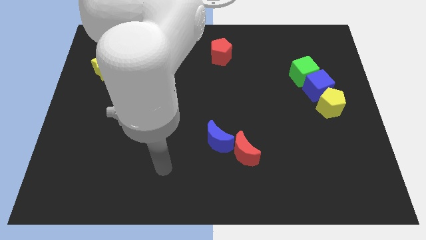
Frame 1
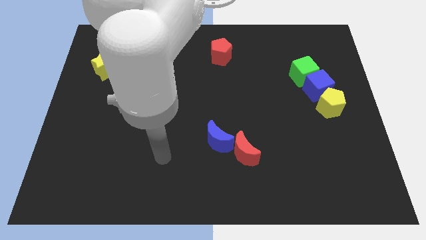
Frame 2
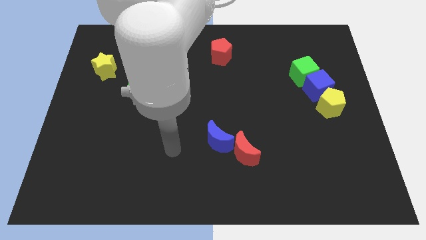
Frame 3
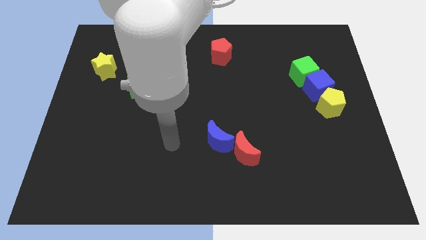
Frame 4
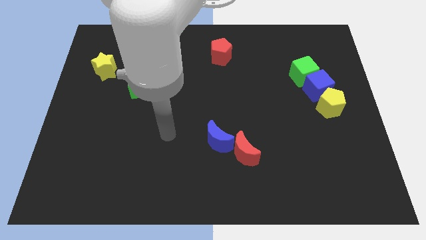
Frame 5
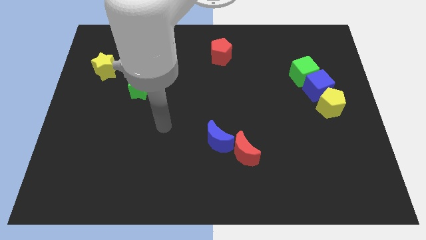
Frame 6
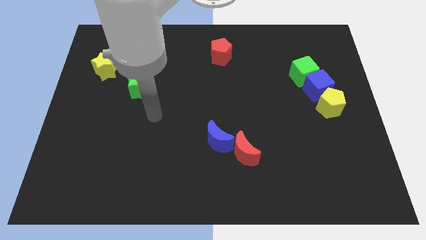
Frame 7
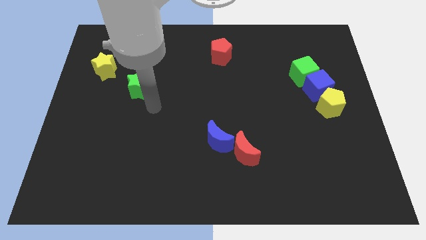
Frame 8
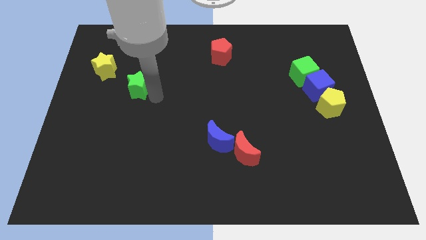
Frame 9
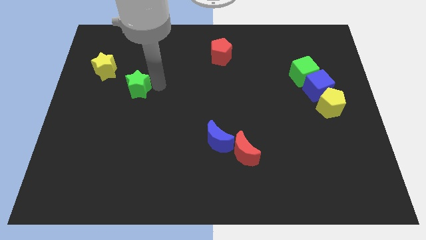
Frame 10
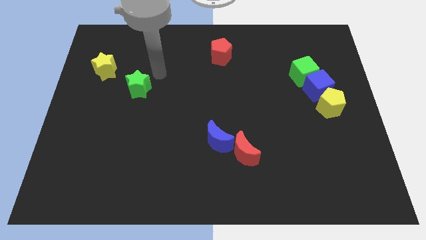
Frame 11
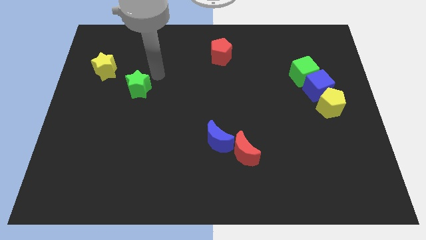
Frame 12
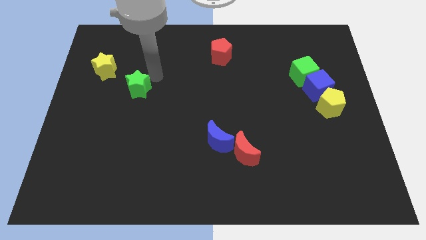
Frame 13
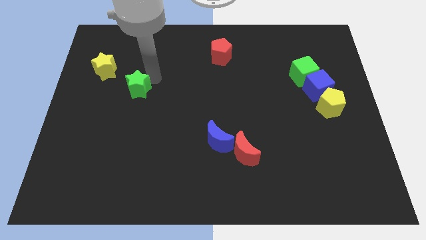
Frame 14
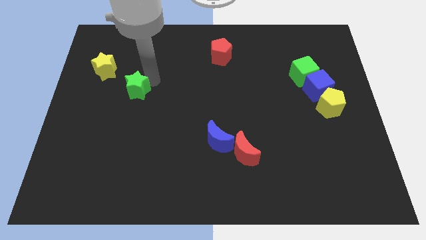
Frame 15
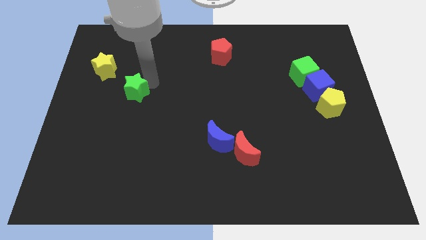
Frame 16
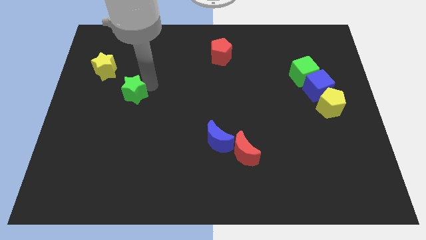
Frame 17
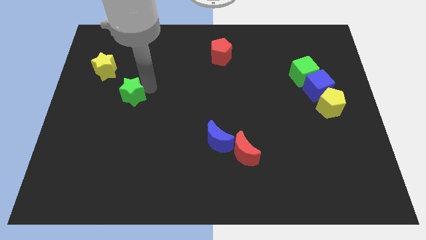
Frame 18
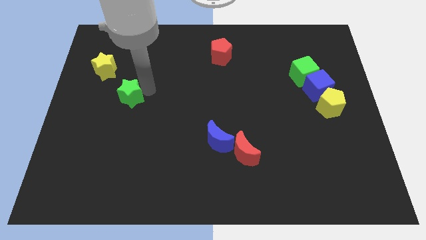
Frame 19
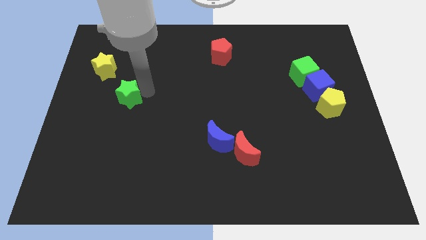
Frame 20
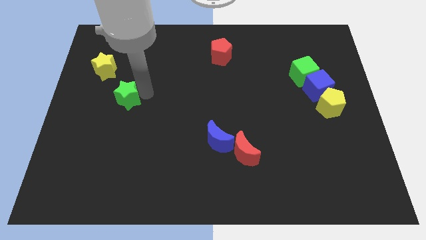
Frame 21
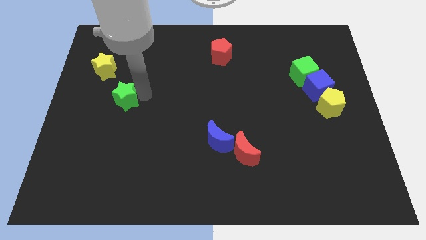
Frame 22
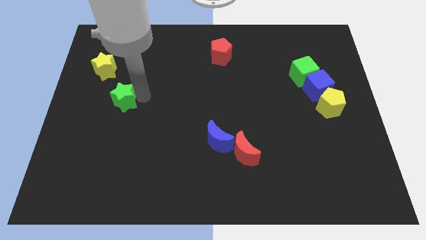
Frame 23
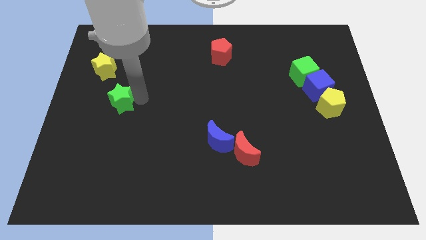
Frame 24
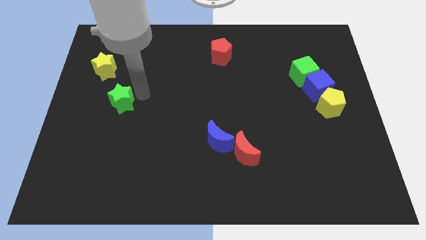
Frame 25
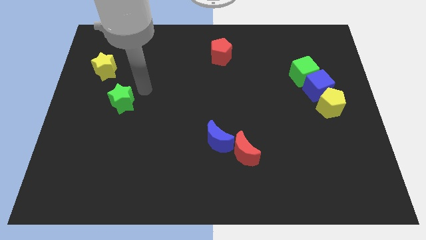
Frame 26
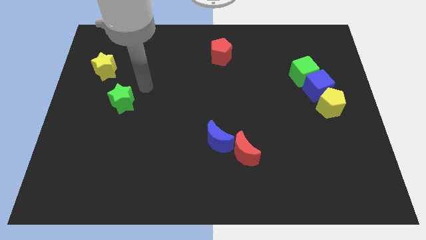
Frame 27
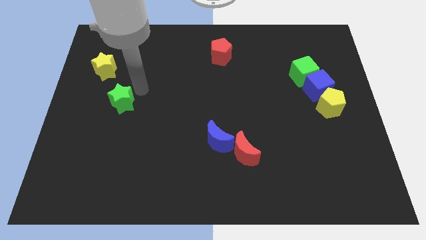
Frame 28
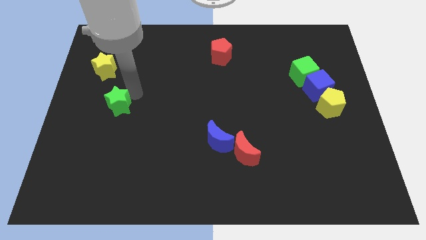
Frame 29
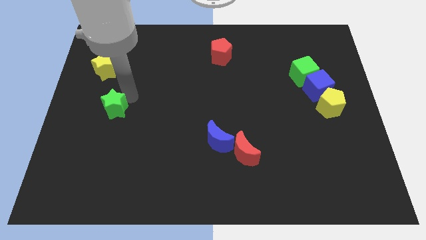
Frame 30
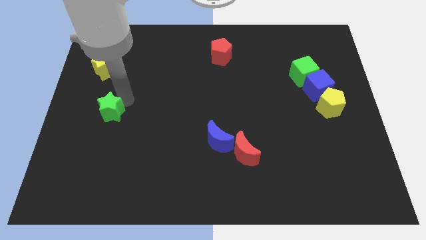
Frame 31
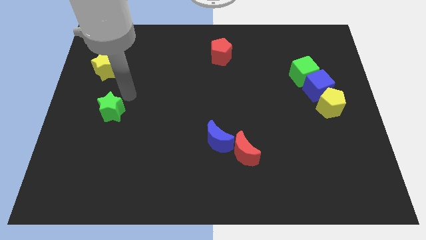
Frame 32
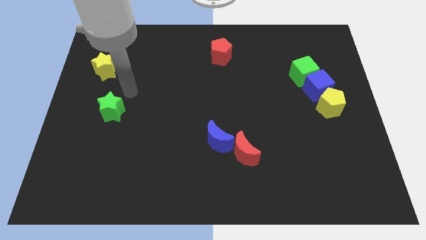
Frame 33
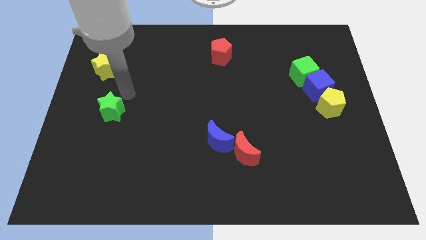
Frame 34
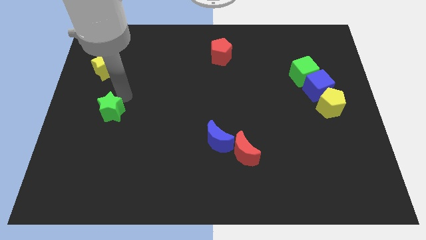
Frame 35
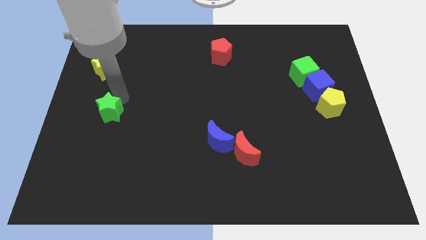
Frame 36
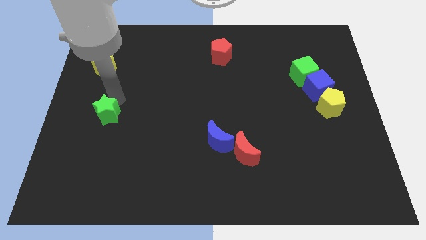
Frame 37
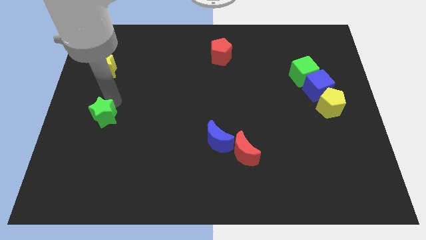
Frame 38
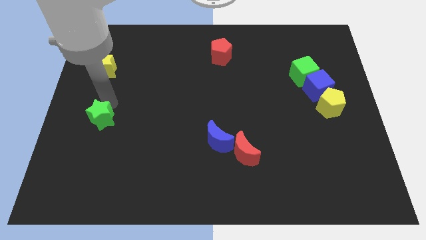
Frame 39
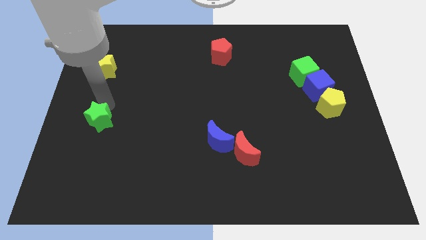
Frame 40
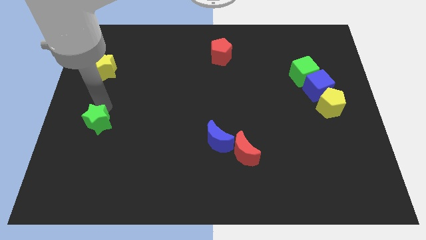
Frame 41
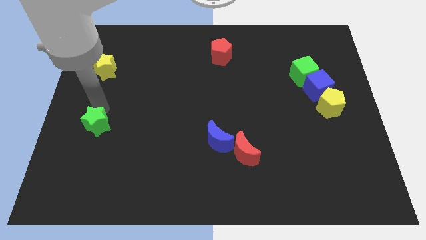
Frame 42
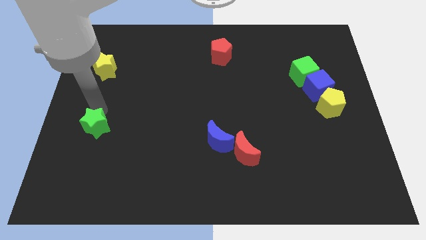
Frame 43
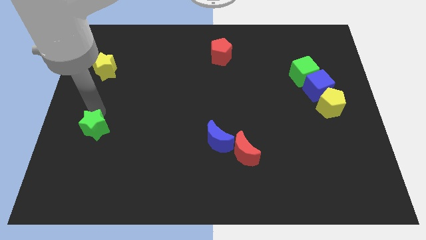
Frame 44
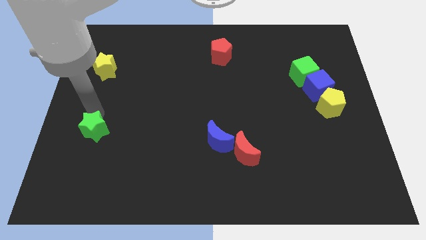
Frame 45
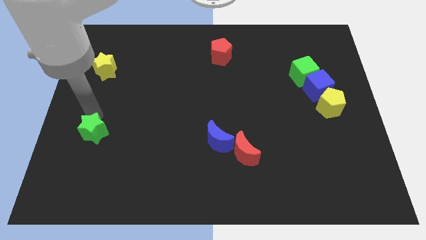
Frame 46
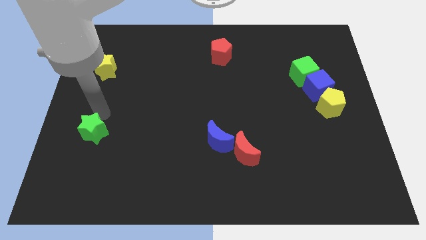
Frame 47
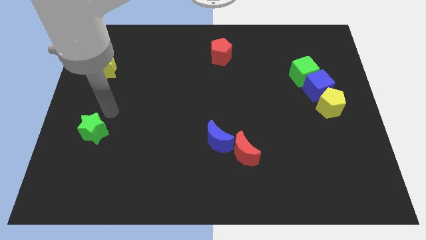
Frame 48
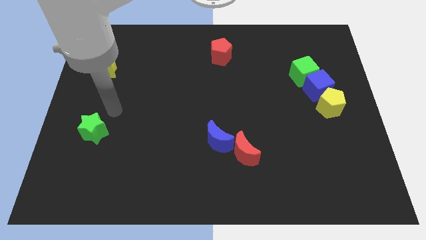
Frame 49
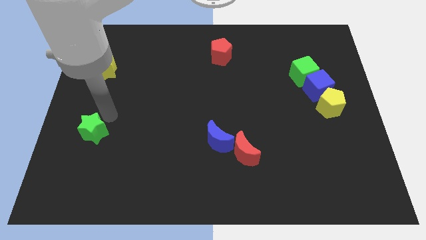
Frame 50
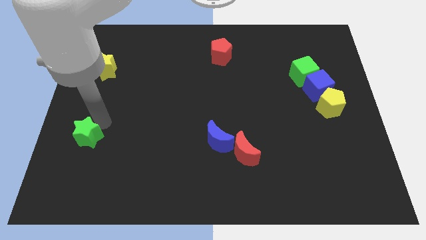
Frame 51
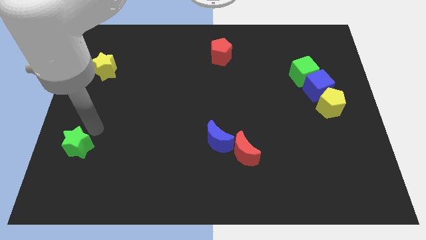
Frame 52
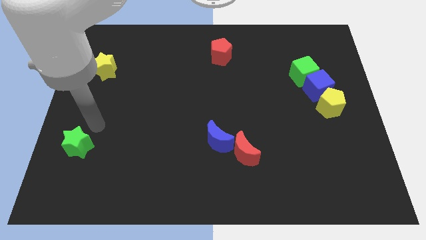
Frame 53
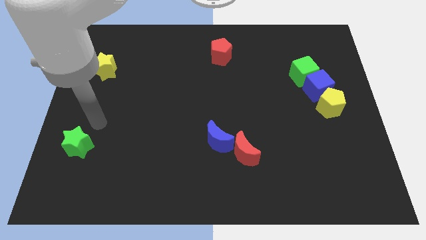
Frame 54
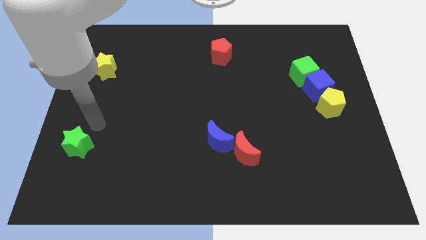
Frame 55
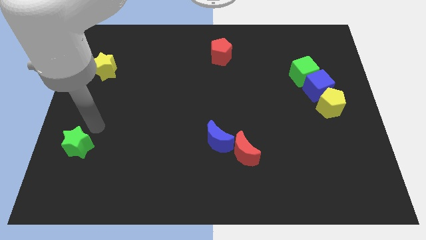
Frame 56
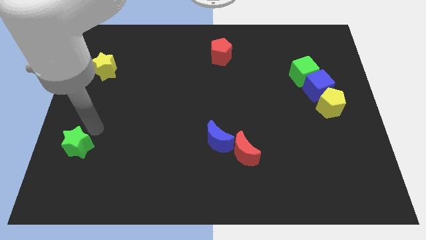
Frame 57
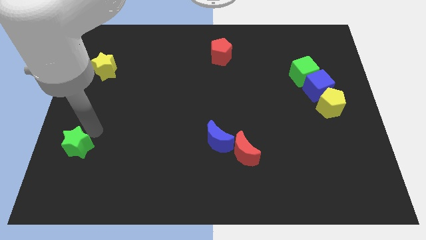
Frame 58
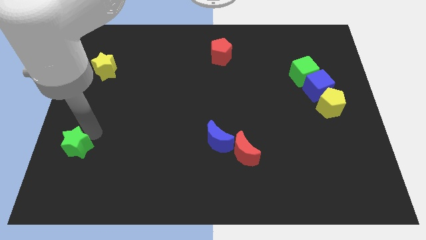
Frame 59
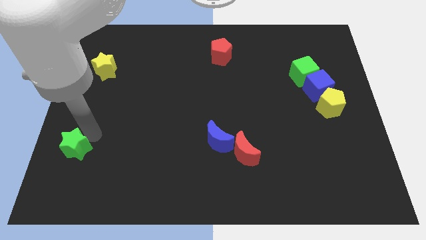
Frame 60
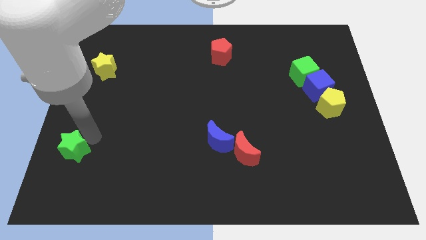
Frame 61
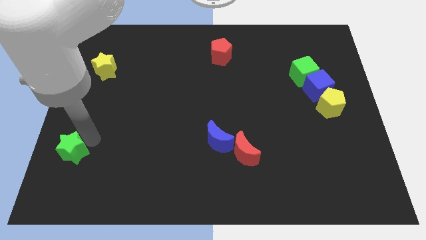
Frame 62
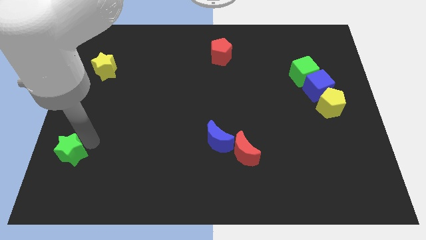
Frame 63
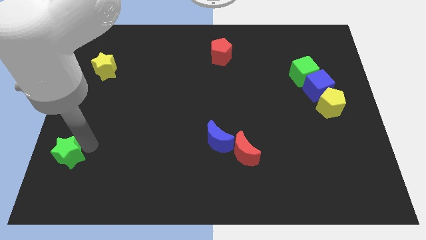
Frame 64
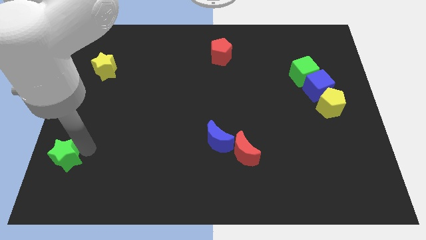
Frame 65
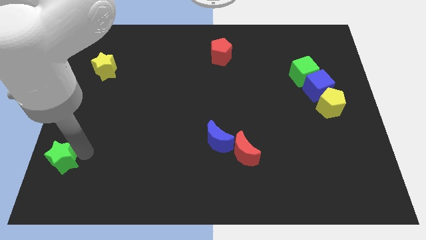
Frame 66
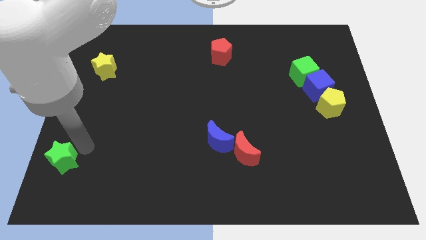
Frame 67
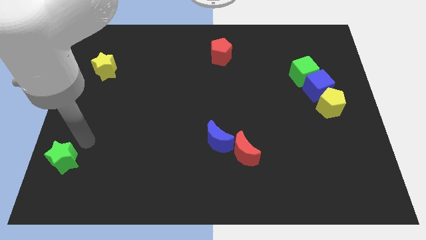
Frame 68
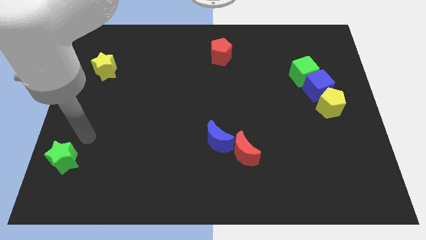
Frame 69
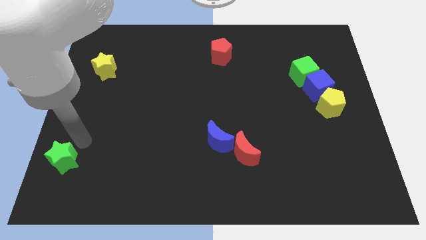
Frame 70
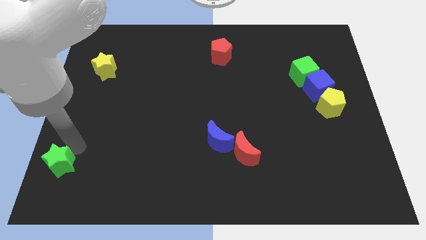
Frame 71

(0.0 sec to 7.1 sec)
put the green star to the bottom left corner
